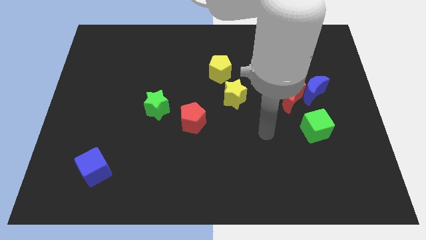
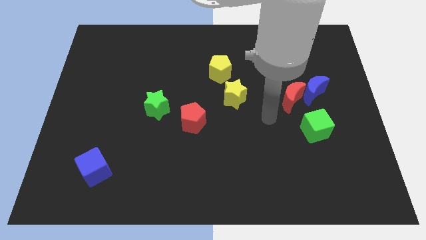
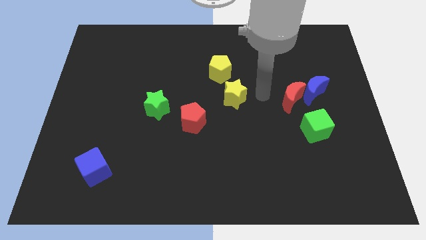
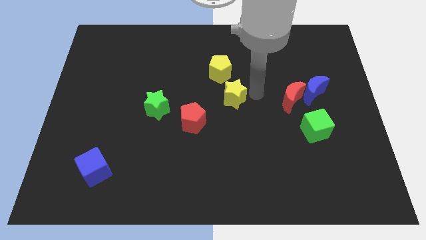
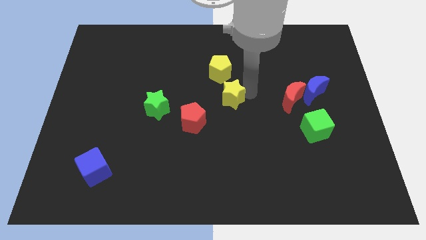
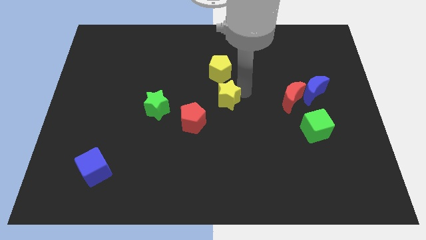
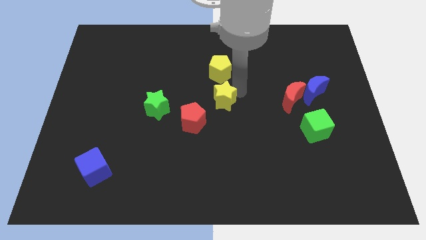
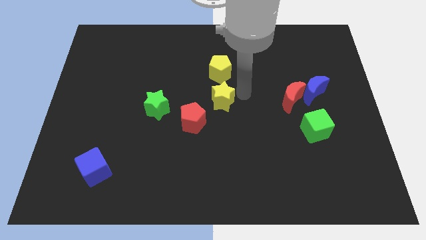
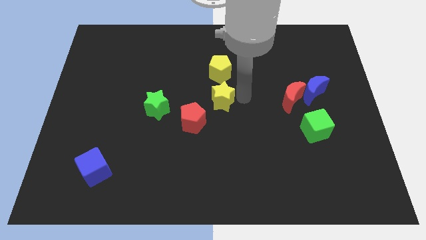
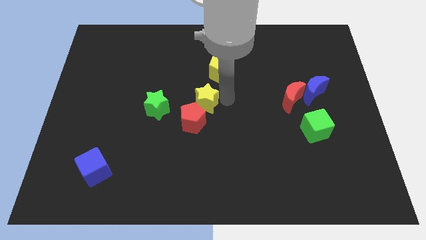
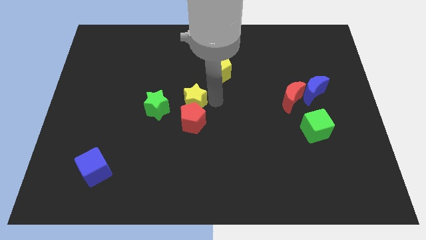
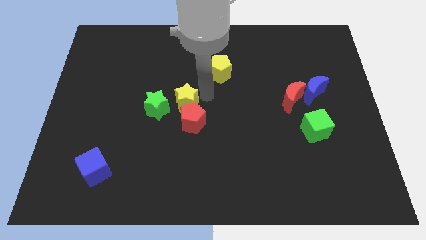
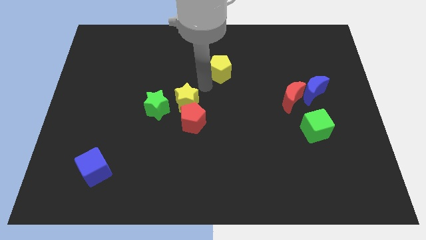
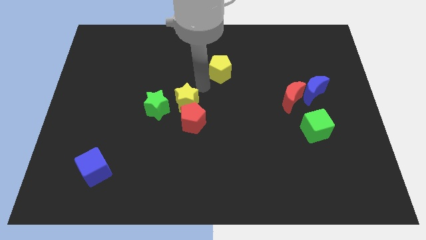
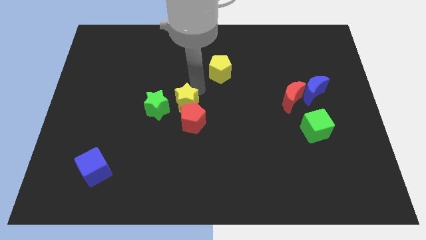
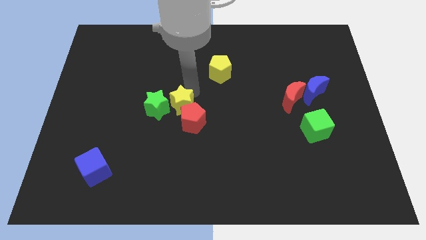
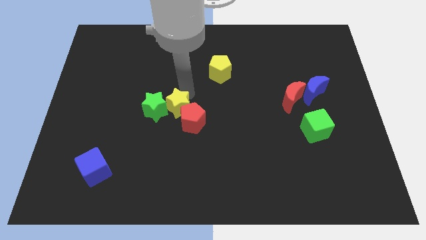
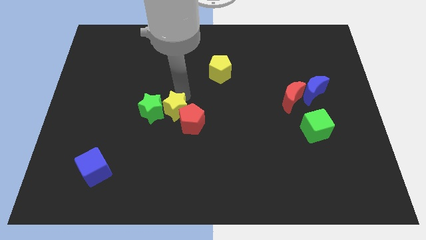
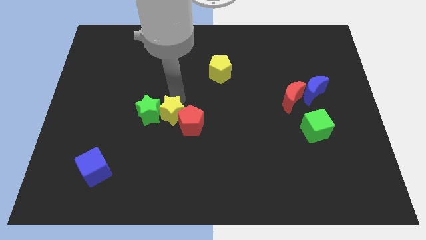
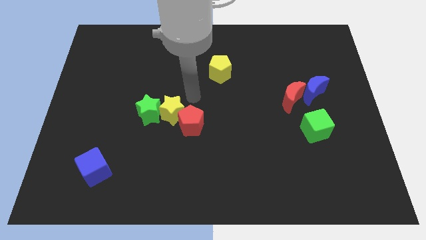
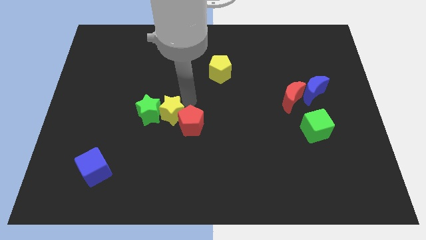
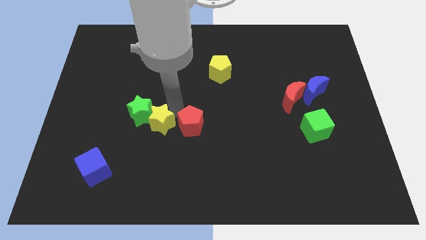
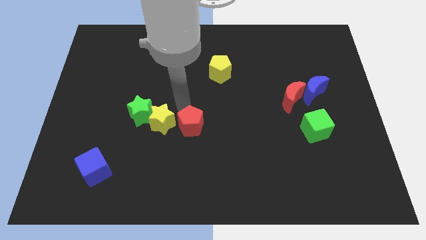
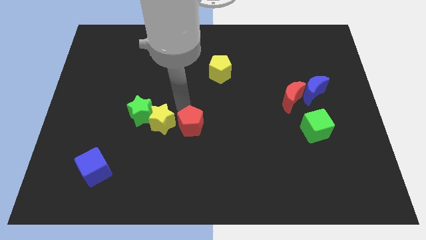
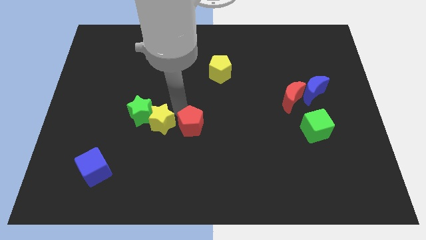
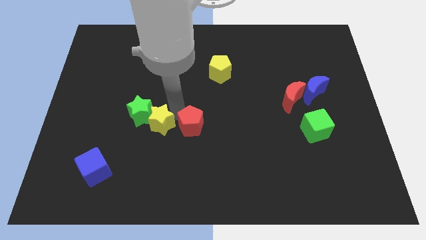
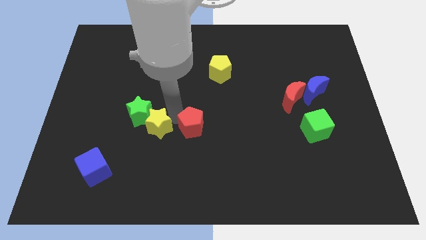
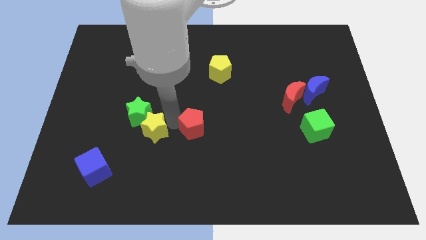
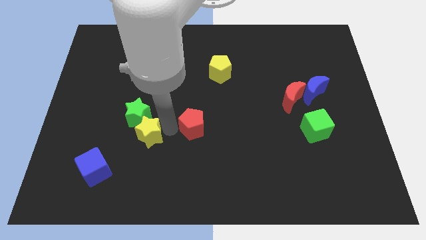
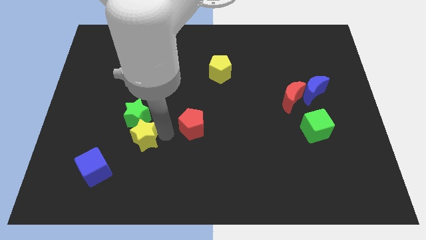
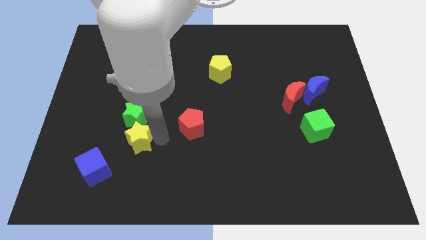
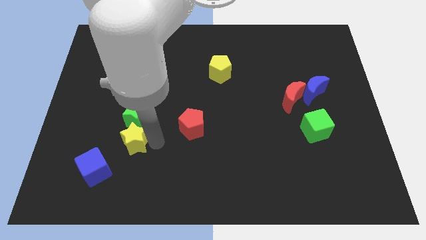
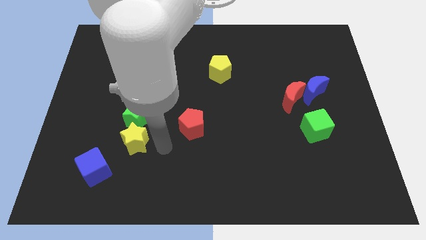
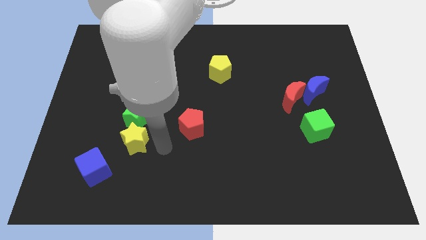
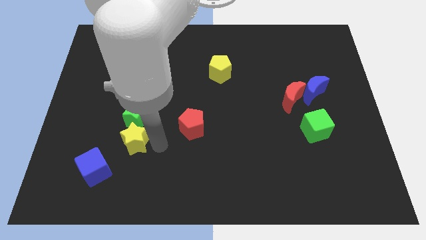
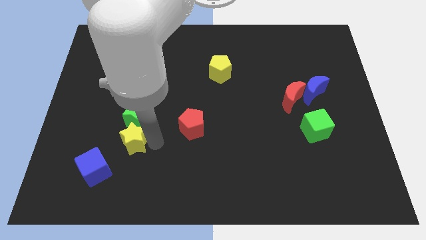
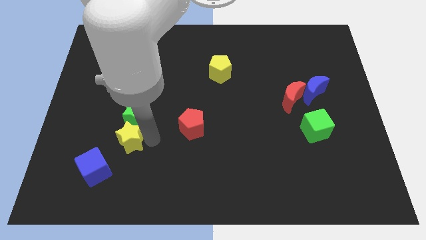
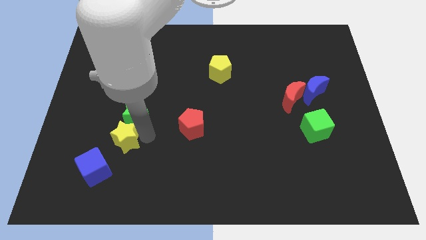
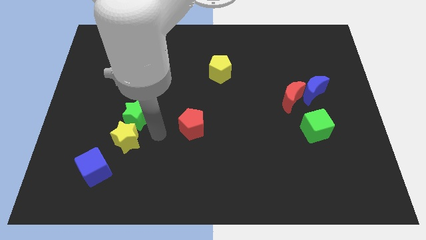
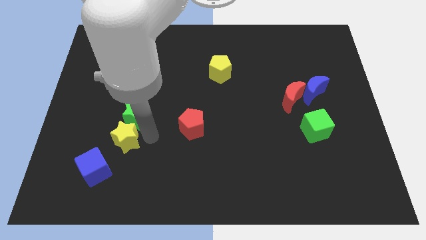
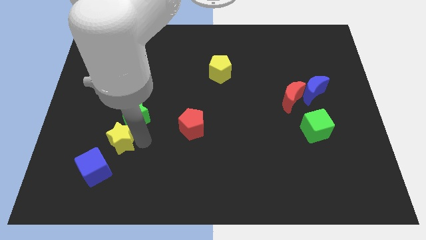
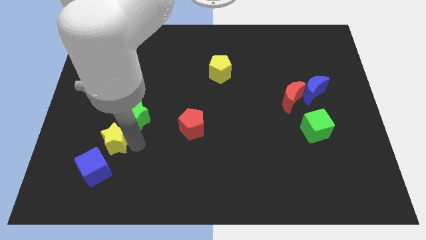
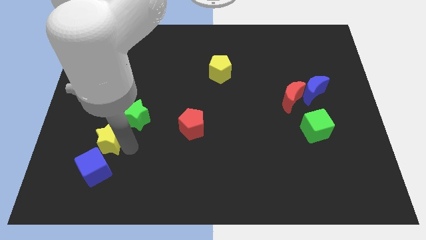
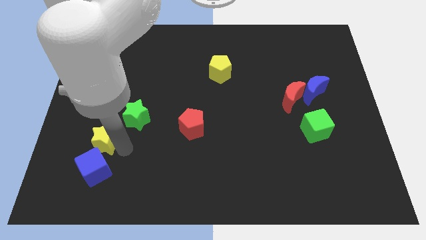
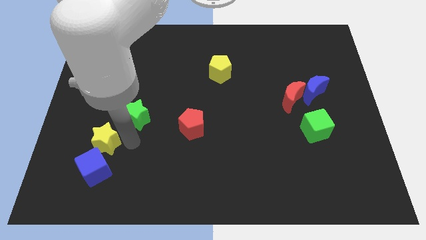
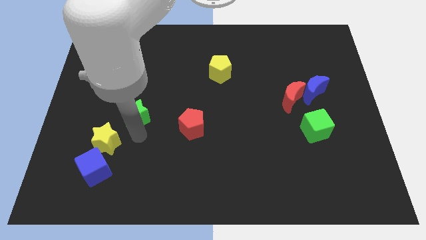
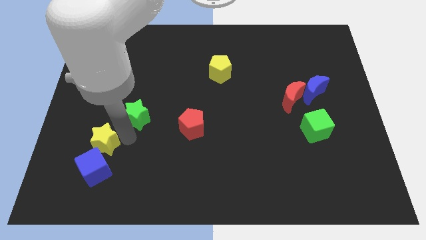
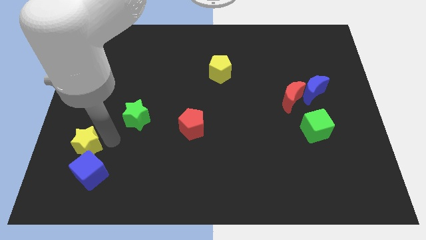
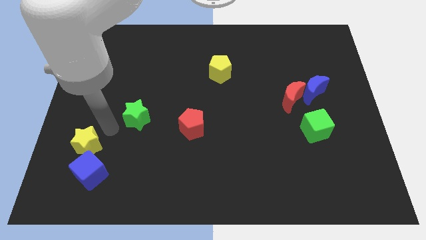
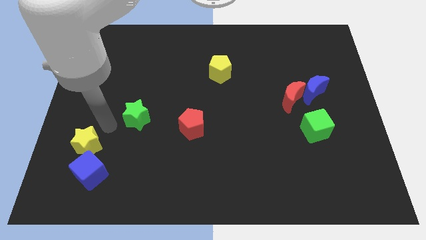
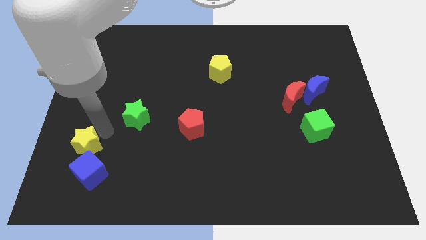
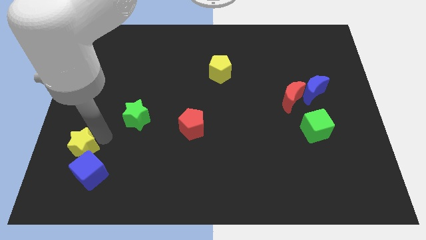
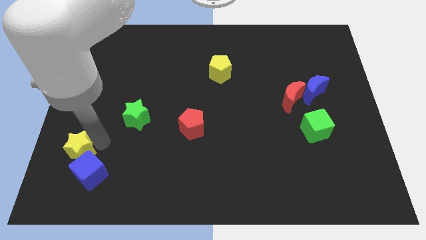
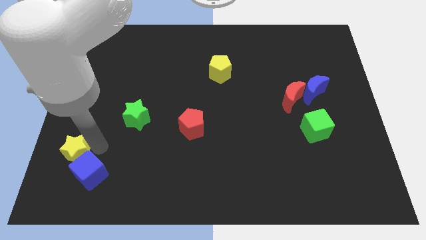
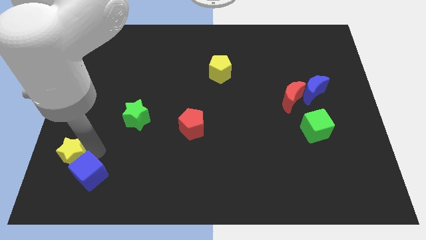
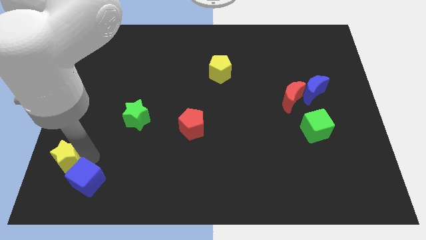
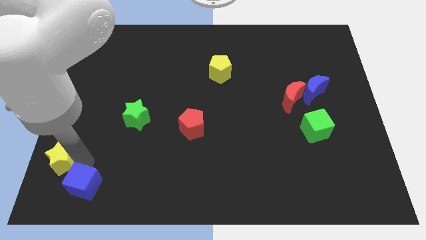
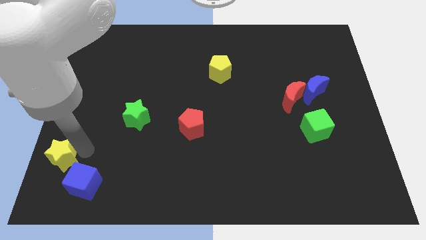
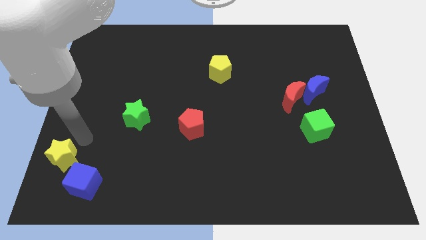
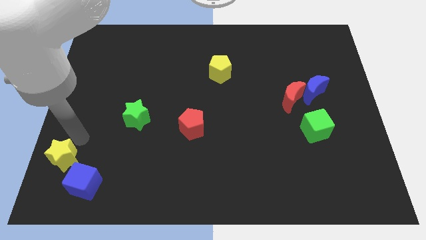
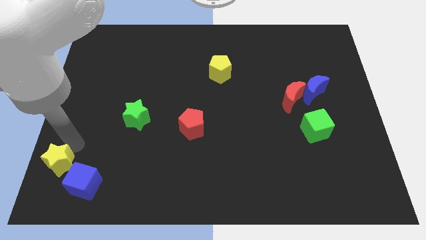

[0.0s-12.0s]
put the yellow star to the bottom left of the board
